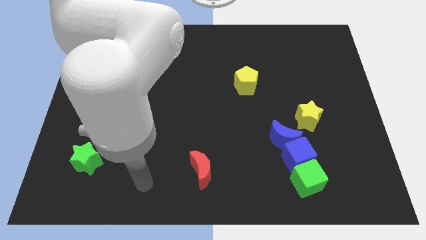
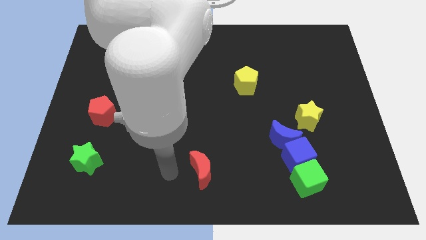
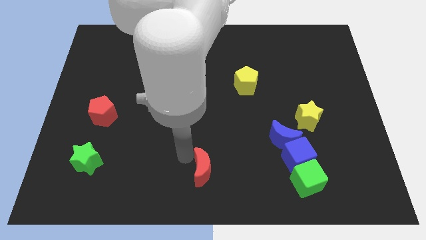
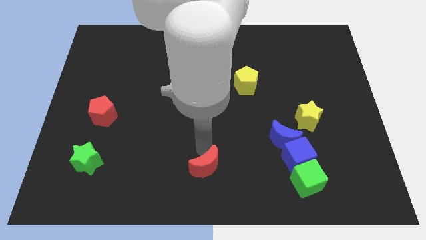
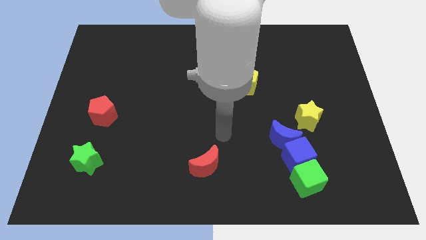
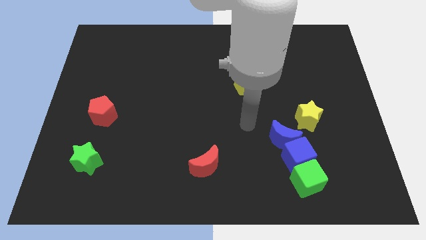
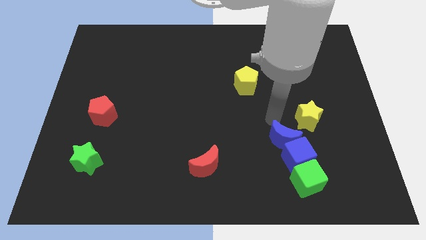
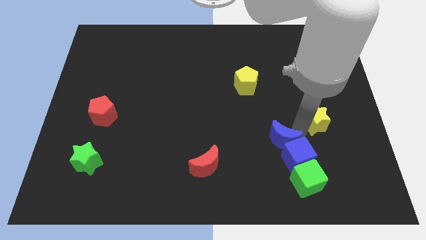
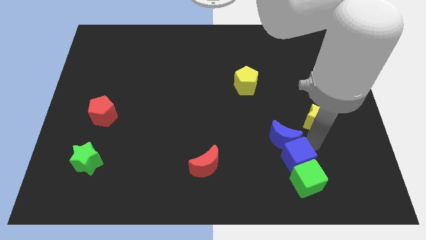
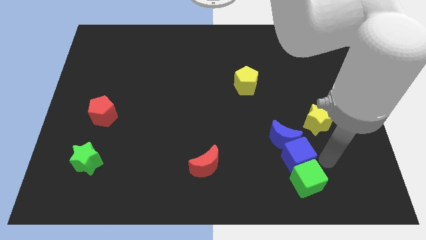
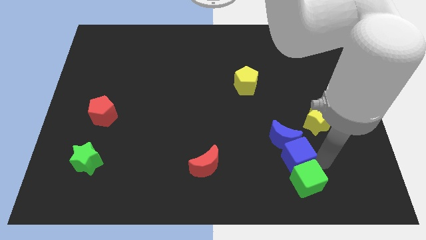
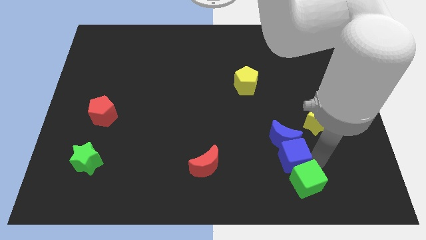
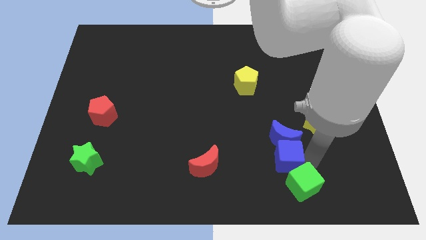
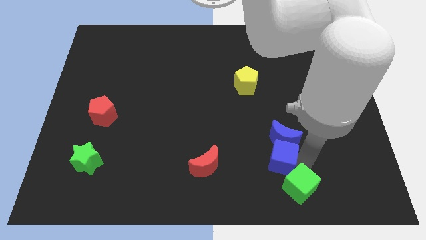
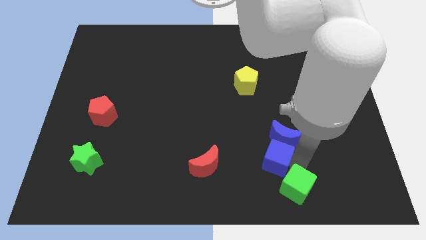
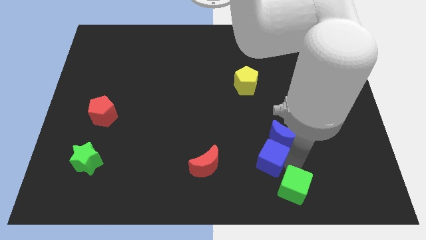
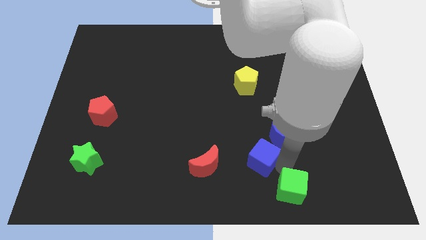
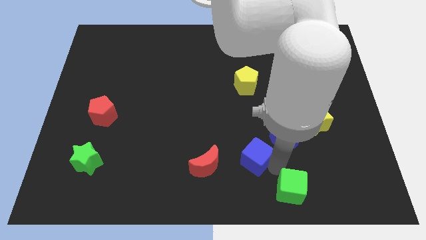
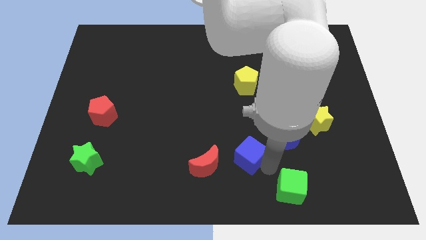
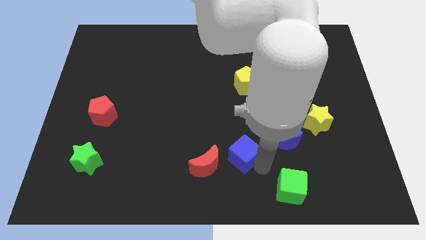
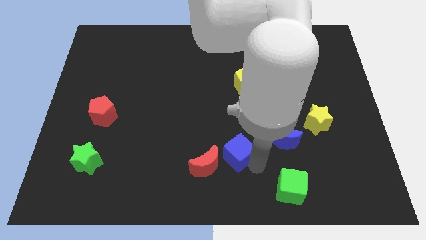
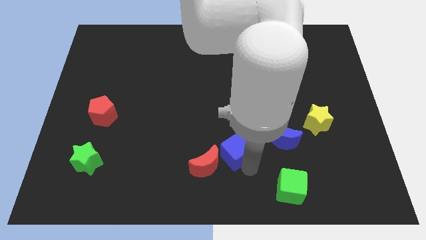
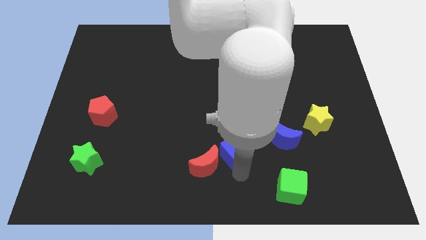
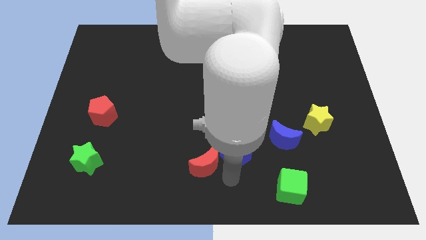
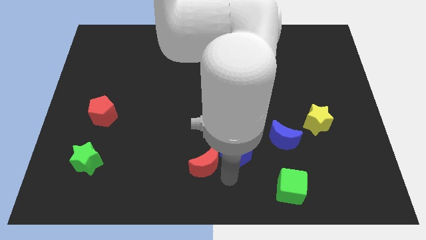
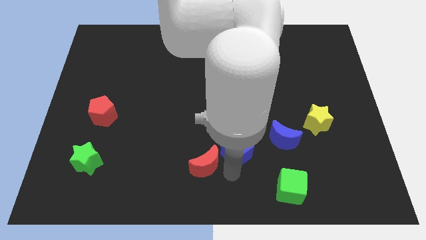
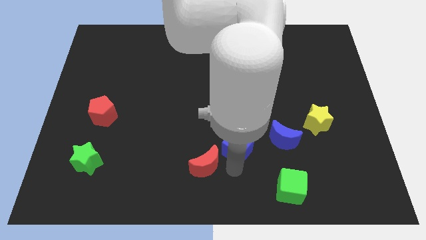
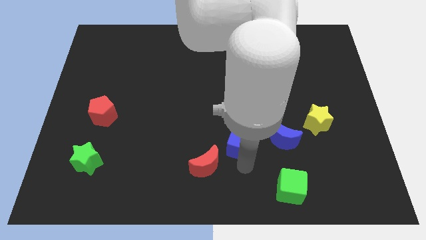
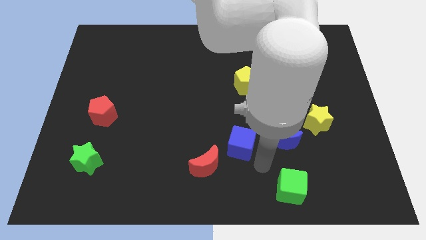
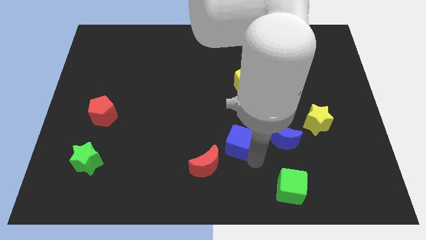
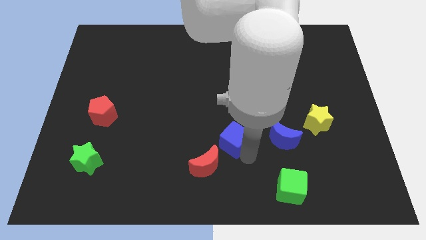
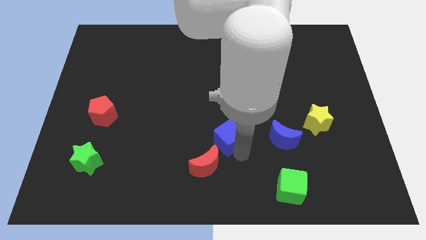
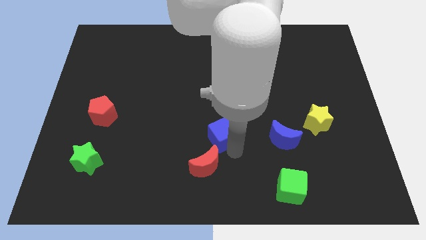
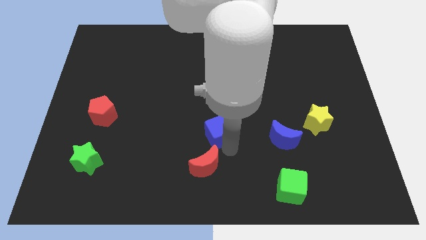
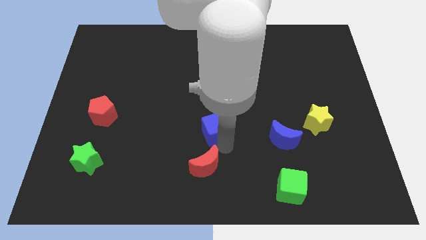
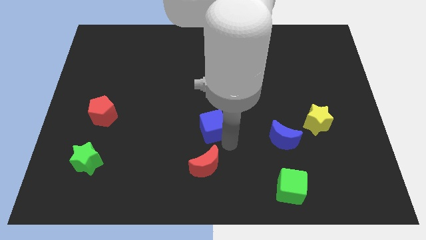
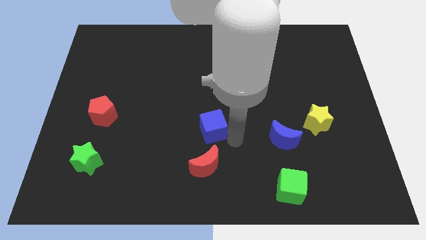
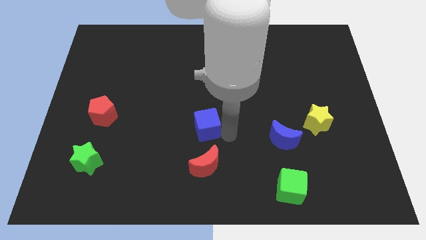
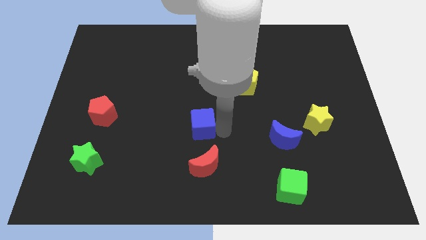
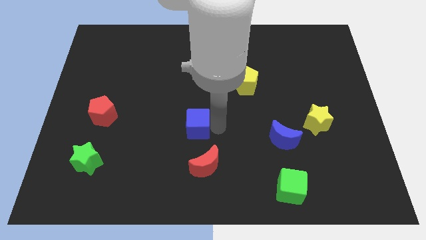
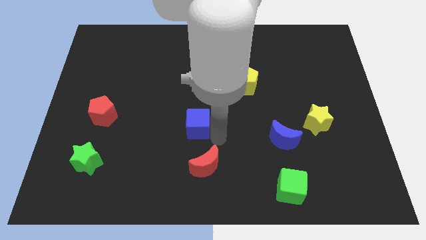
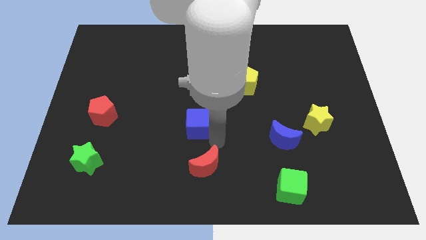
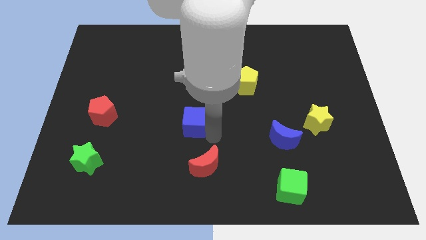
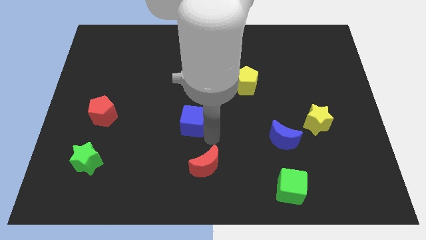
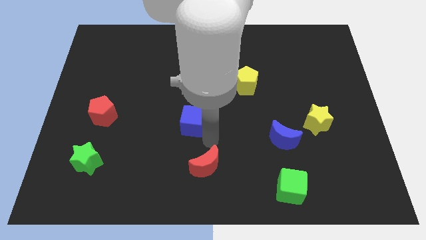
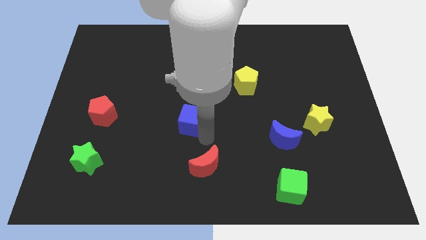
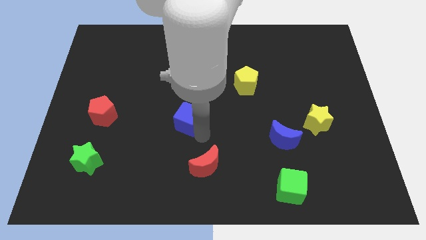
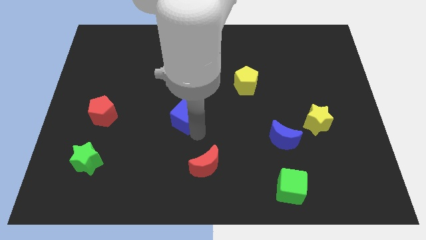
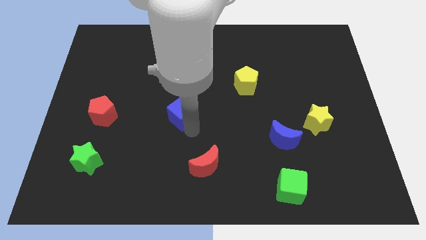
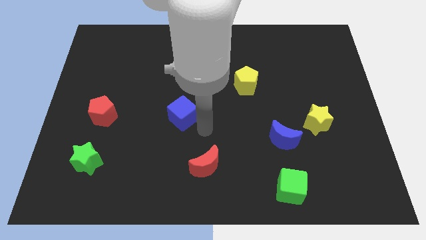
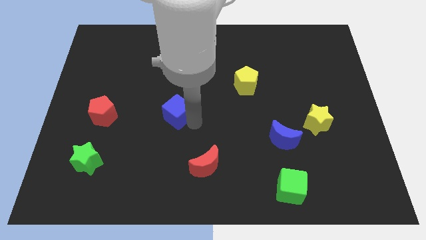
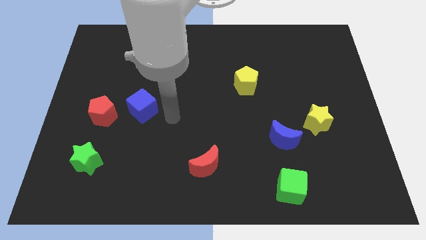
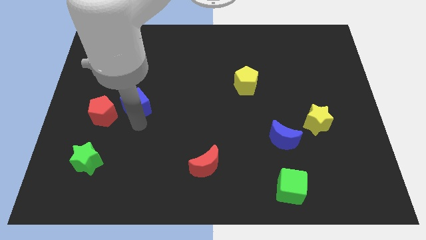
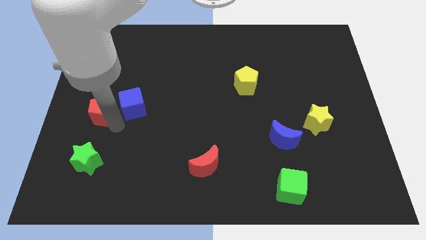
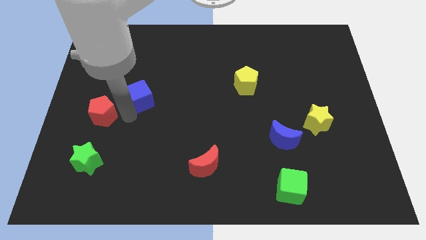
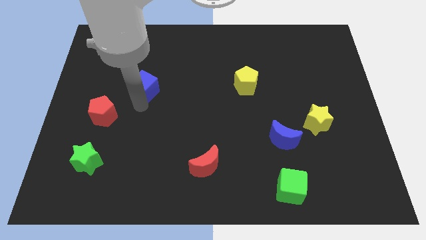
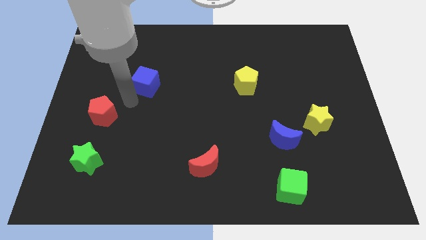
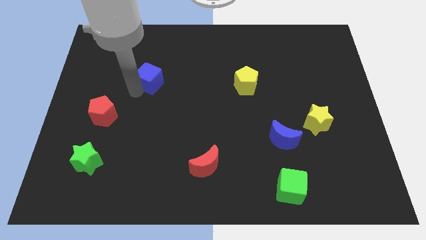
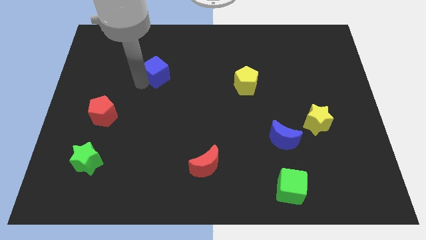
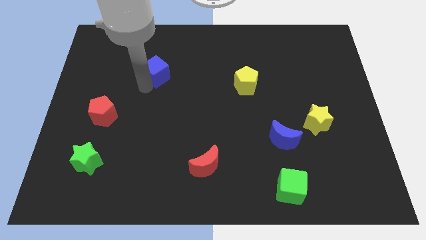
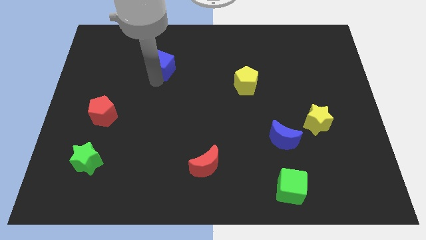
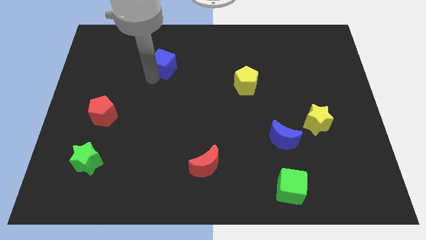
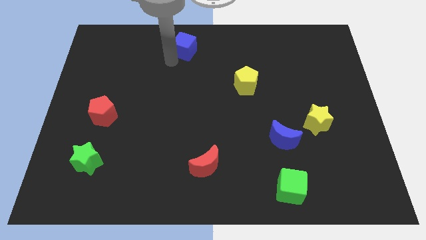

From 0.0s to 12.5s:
slide the blue cube to the top side

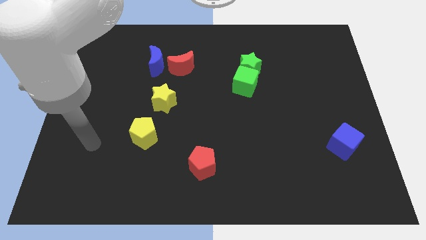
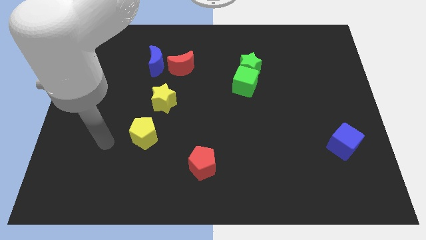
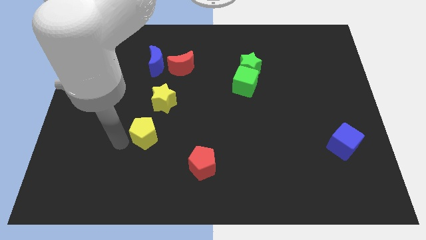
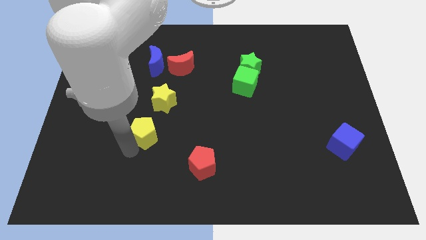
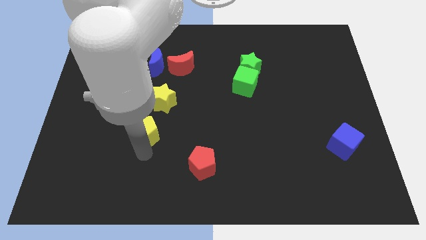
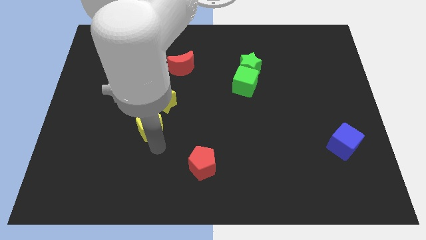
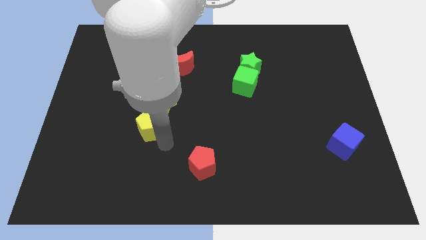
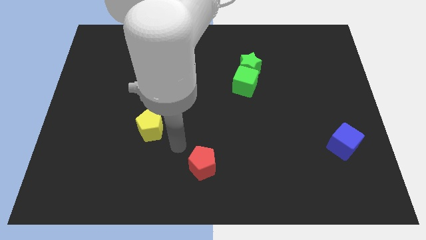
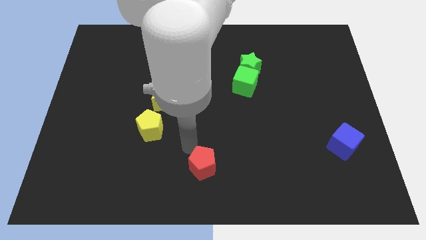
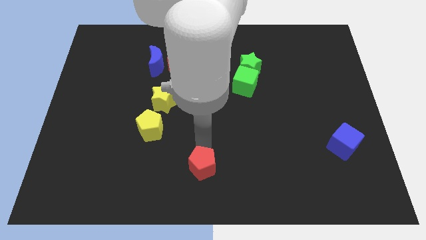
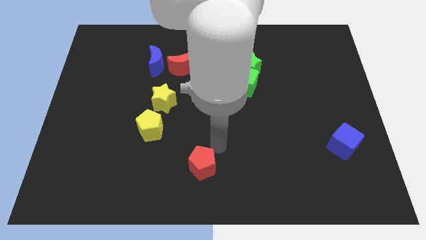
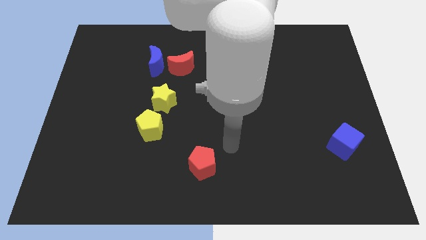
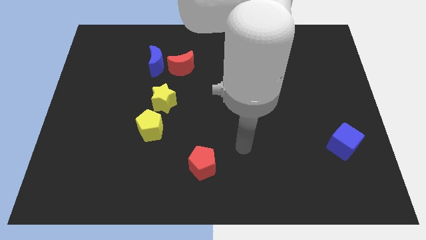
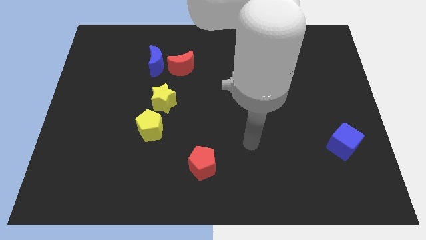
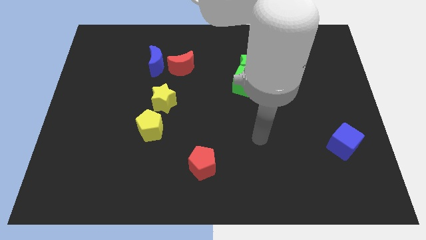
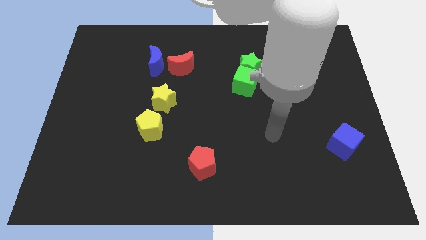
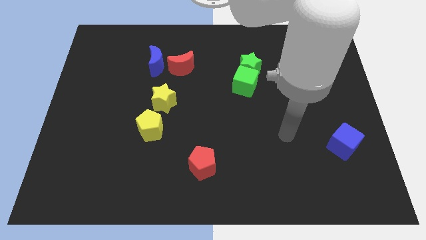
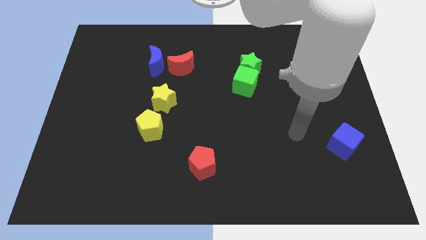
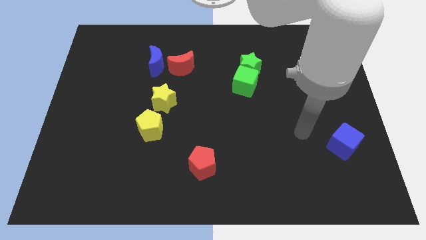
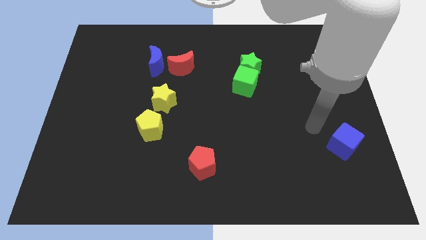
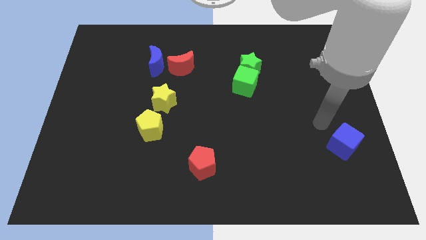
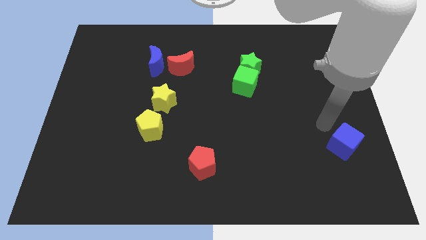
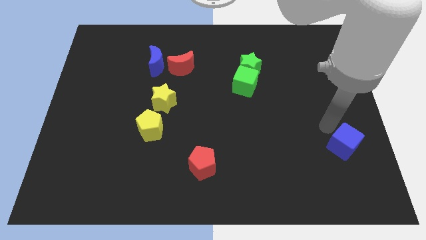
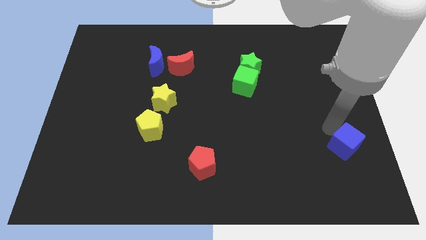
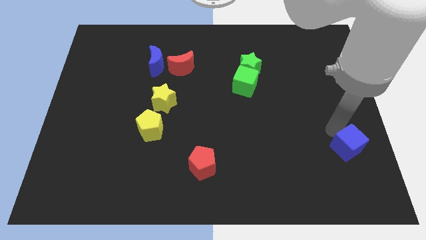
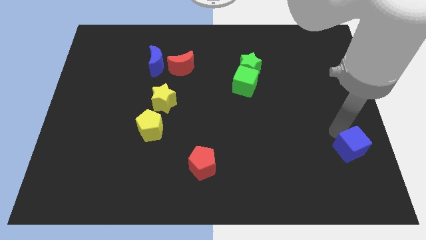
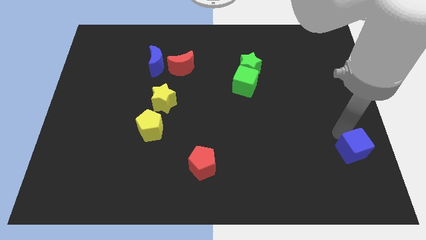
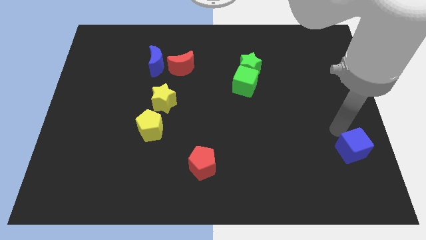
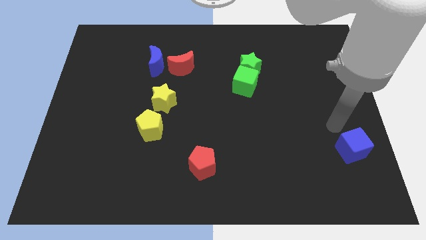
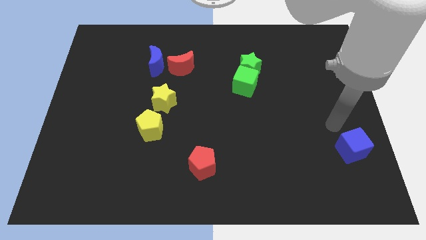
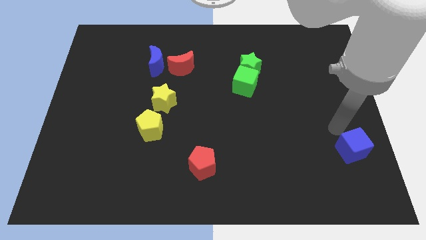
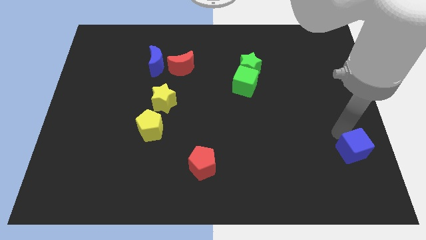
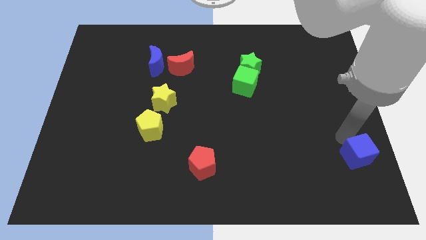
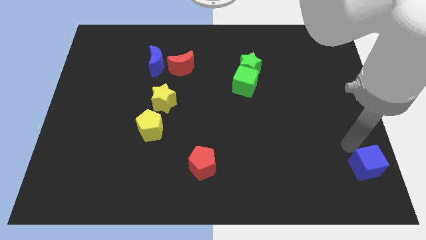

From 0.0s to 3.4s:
move the blue cube to the bottom right
